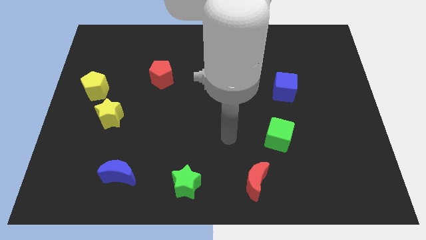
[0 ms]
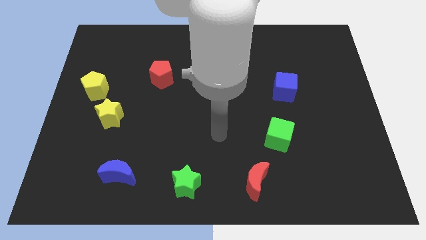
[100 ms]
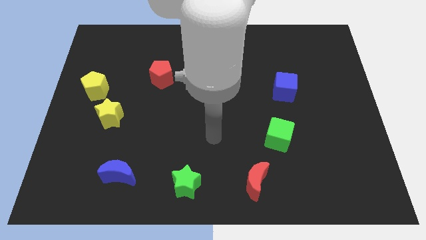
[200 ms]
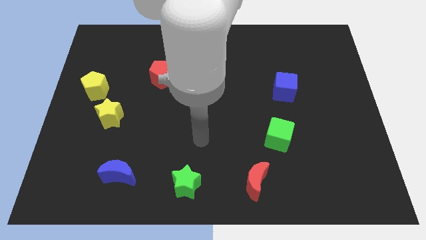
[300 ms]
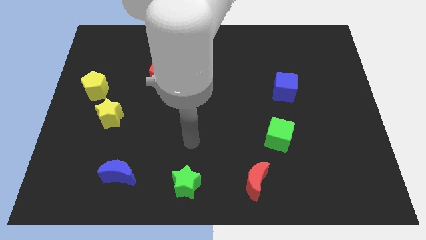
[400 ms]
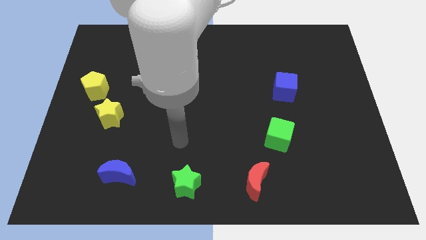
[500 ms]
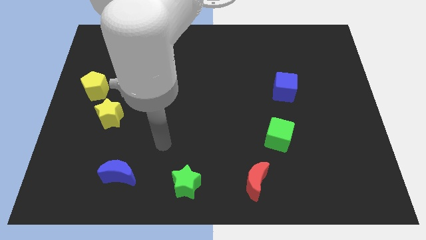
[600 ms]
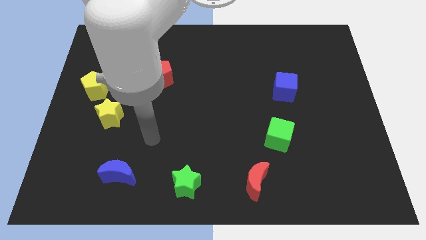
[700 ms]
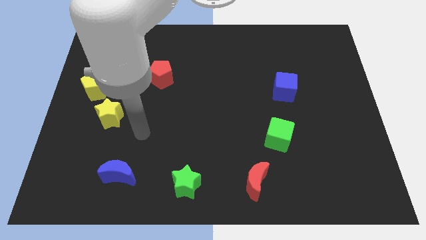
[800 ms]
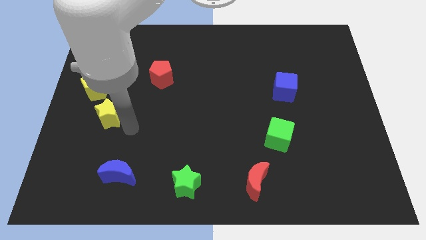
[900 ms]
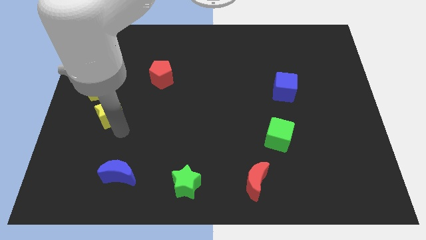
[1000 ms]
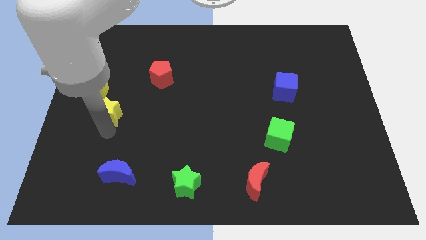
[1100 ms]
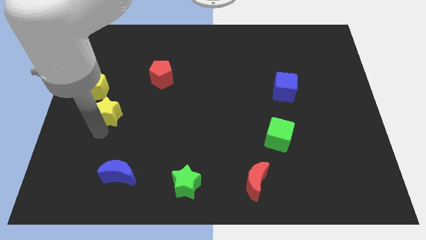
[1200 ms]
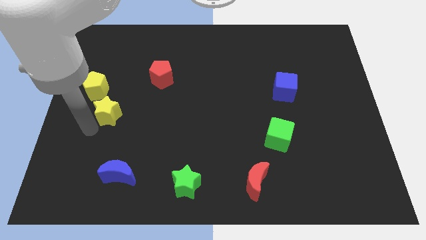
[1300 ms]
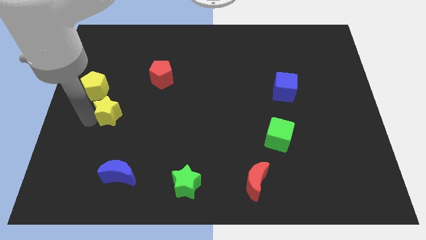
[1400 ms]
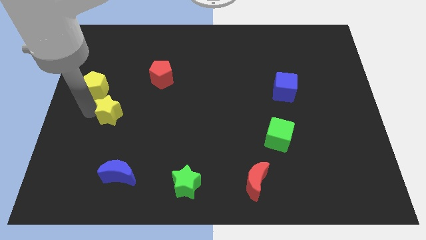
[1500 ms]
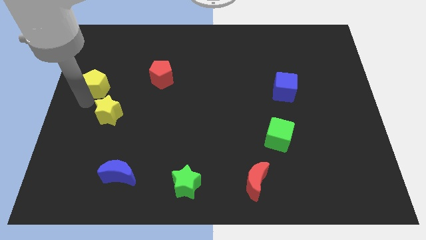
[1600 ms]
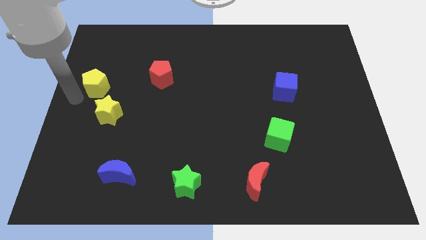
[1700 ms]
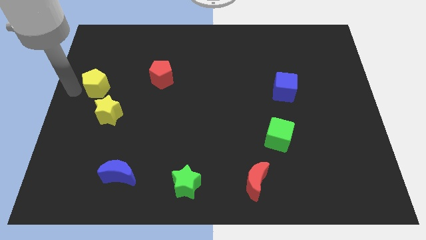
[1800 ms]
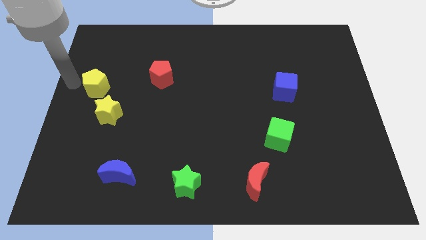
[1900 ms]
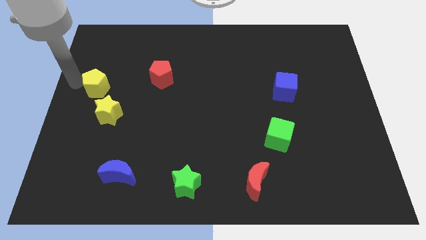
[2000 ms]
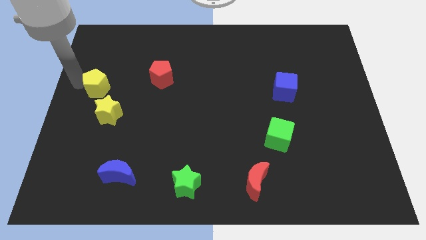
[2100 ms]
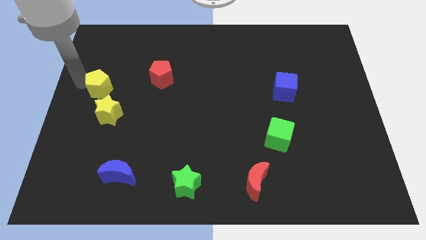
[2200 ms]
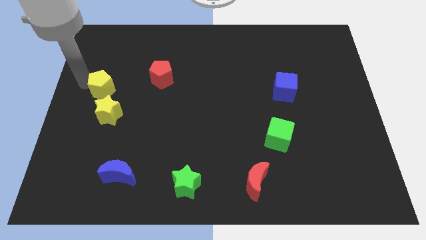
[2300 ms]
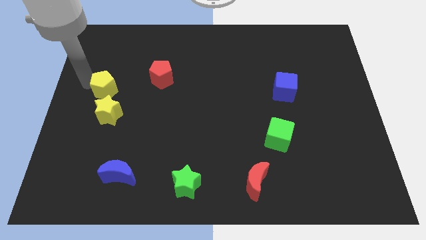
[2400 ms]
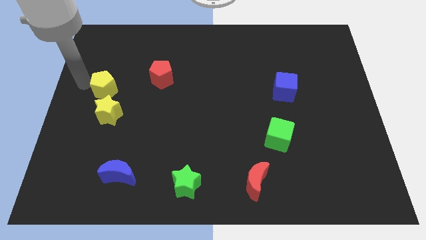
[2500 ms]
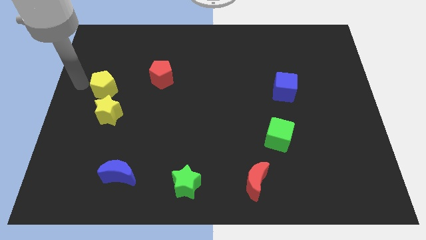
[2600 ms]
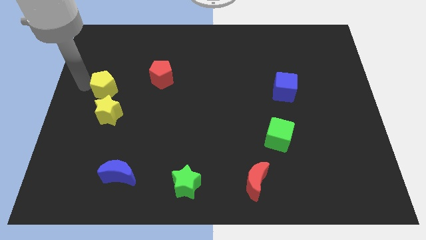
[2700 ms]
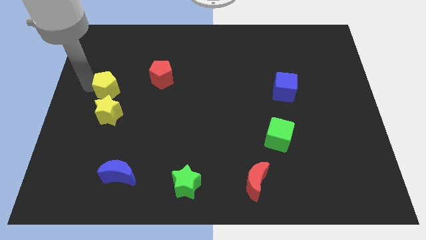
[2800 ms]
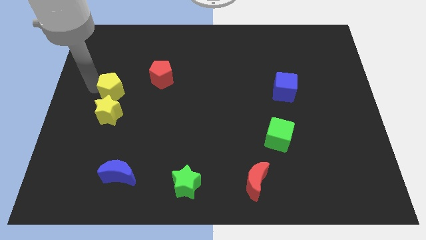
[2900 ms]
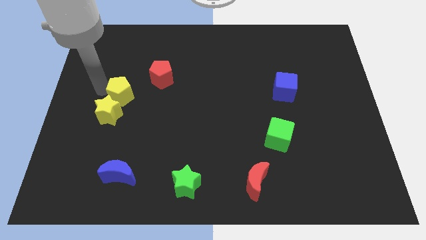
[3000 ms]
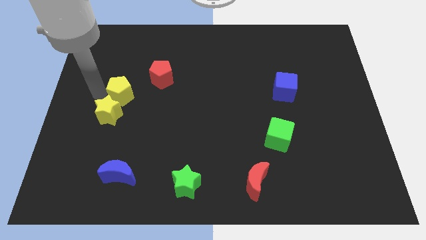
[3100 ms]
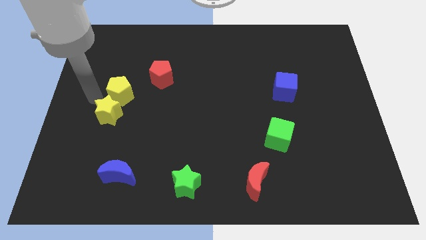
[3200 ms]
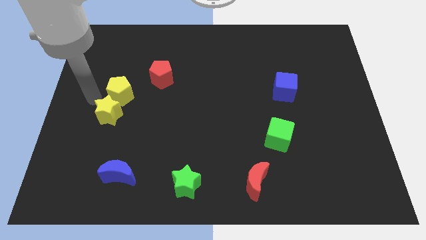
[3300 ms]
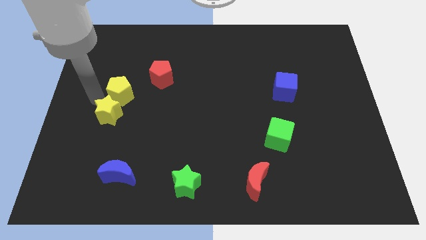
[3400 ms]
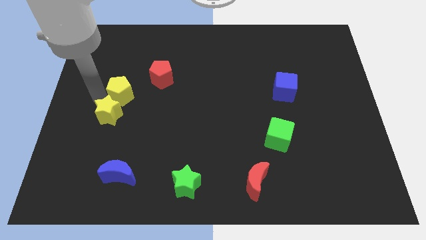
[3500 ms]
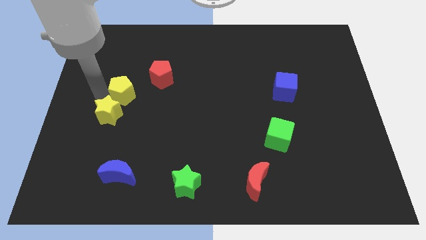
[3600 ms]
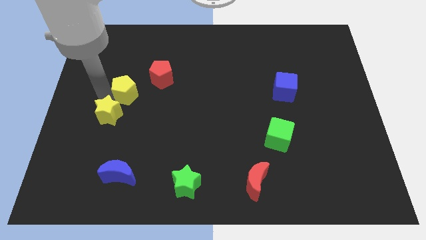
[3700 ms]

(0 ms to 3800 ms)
slightly slide the yellow pentagon right

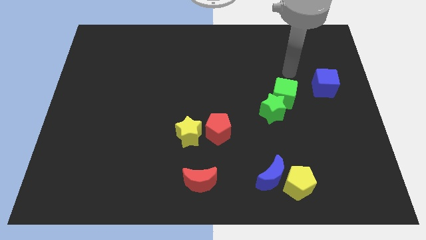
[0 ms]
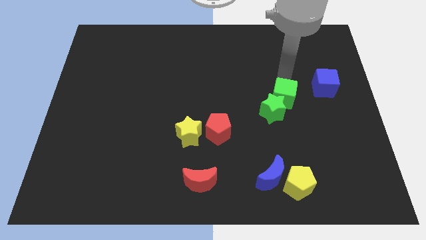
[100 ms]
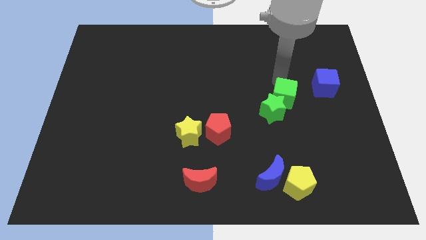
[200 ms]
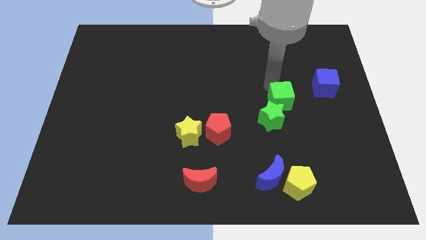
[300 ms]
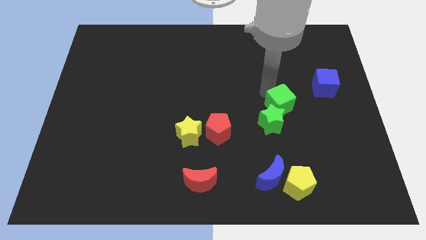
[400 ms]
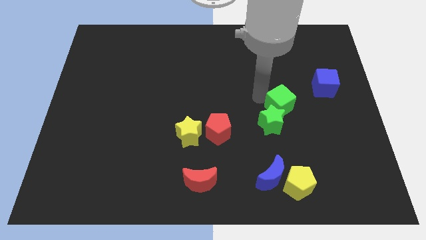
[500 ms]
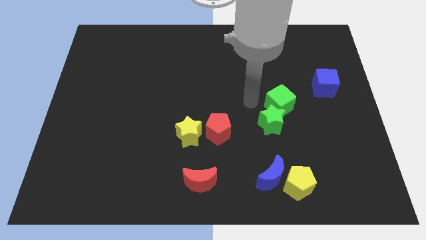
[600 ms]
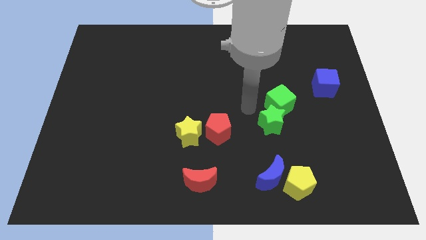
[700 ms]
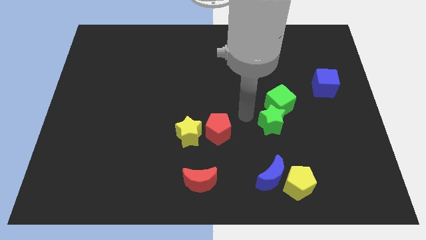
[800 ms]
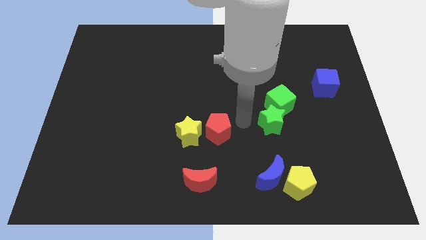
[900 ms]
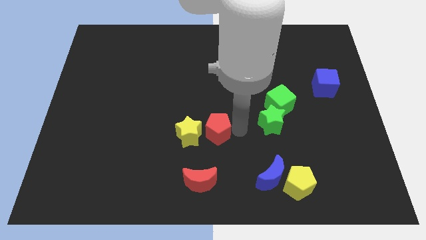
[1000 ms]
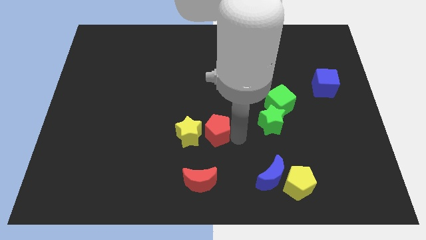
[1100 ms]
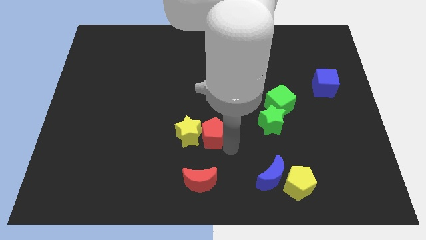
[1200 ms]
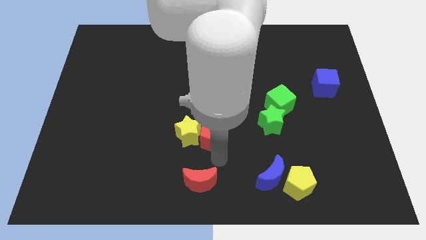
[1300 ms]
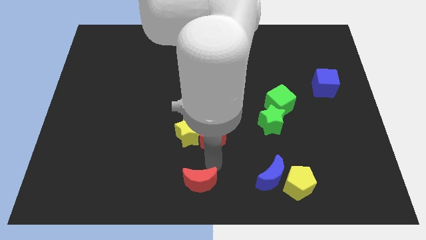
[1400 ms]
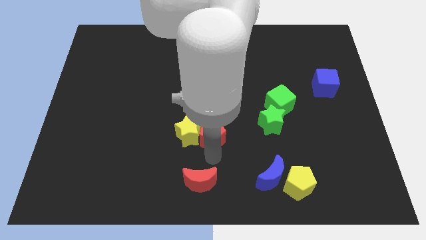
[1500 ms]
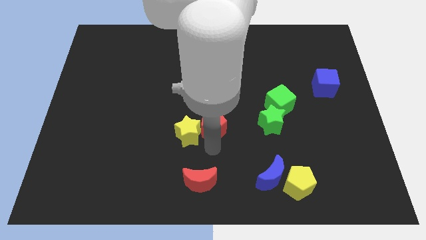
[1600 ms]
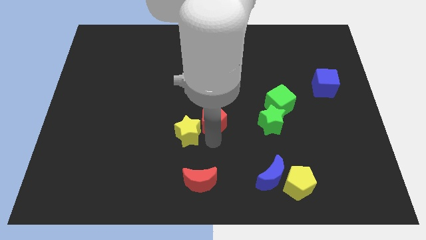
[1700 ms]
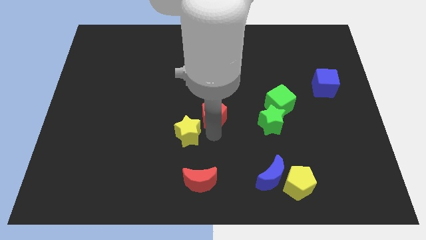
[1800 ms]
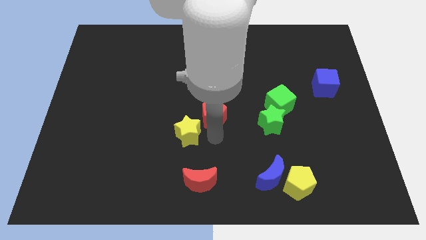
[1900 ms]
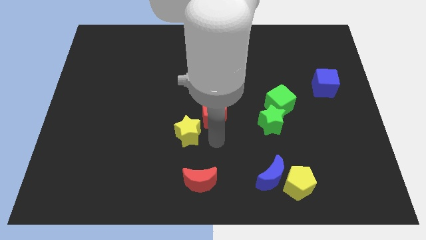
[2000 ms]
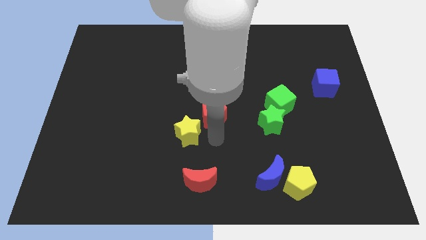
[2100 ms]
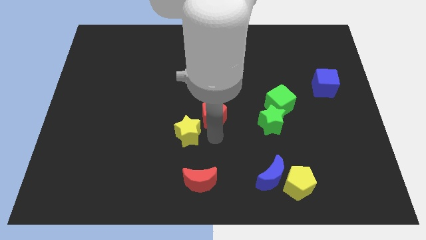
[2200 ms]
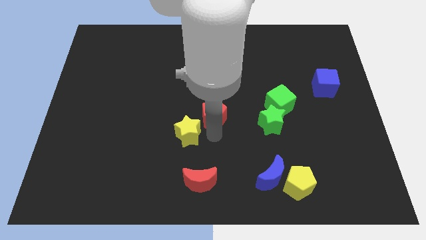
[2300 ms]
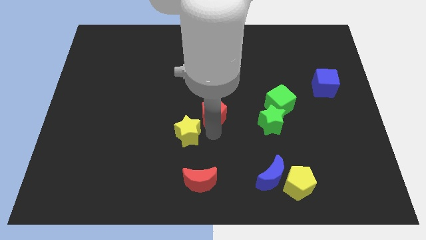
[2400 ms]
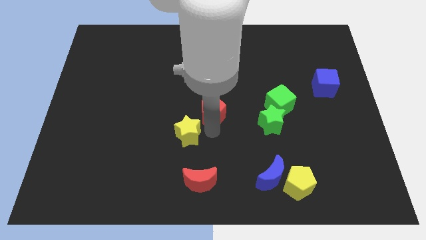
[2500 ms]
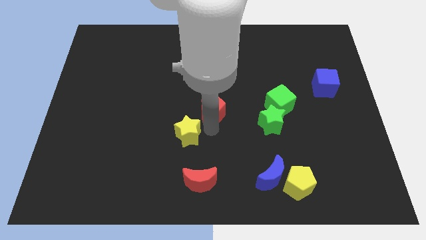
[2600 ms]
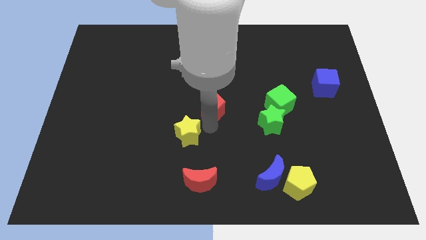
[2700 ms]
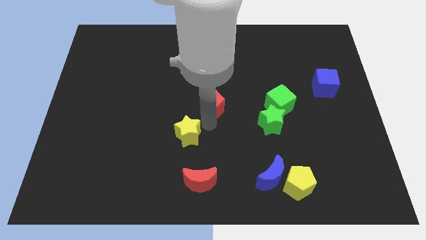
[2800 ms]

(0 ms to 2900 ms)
slide the red pentagon a bit up

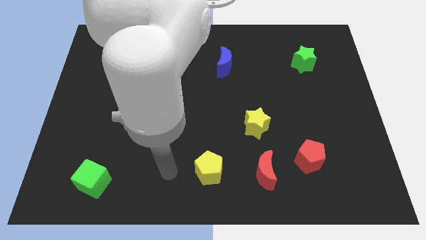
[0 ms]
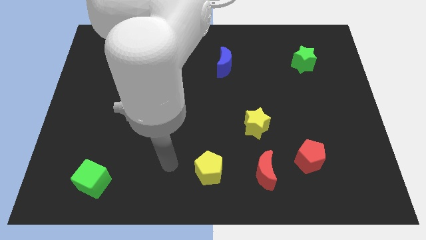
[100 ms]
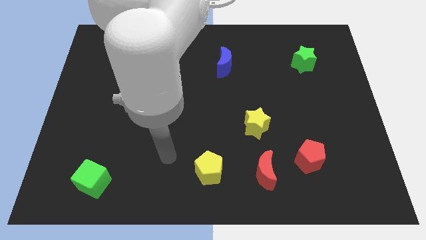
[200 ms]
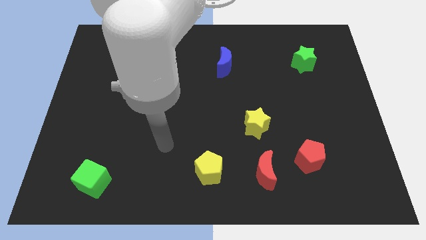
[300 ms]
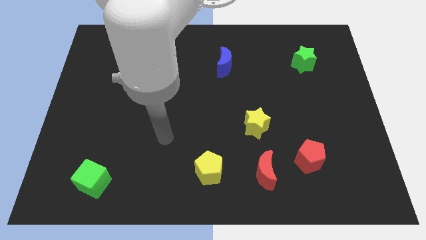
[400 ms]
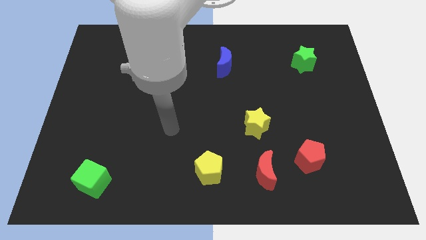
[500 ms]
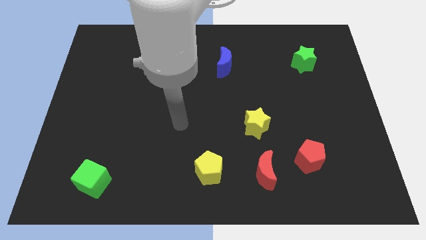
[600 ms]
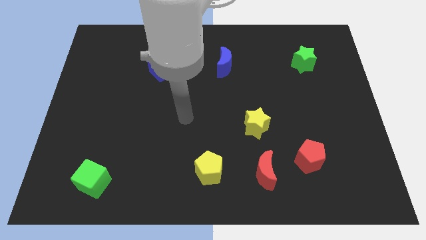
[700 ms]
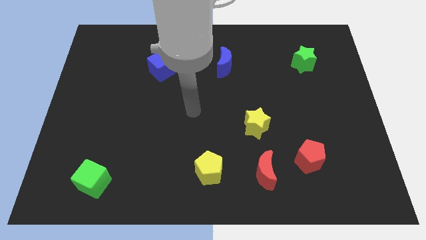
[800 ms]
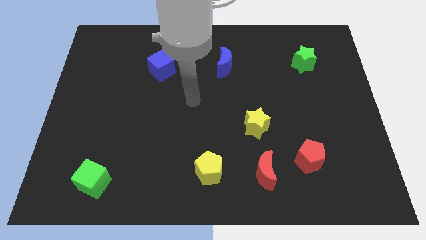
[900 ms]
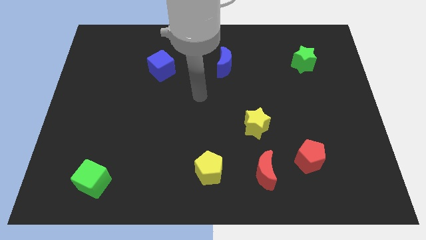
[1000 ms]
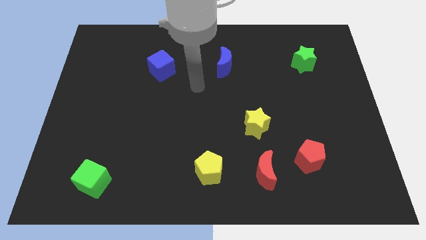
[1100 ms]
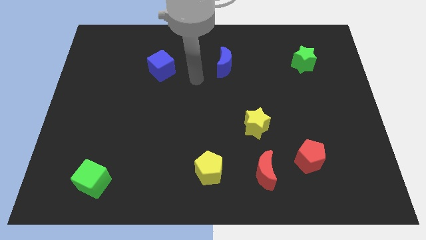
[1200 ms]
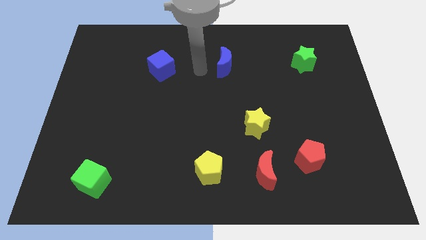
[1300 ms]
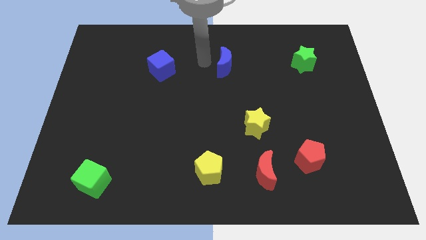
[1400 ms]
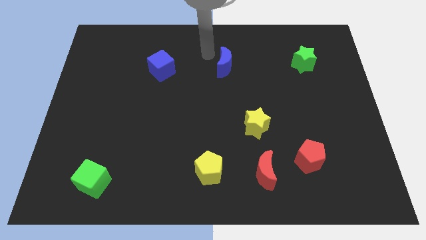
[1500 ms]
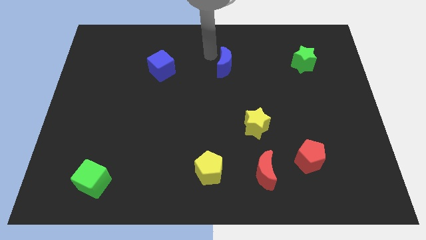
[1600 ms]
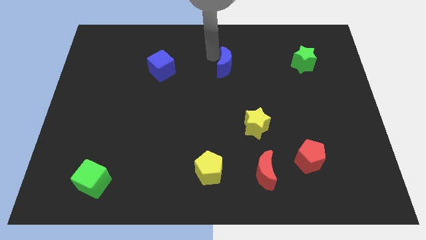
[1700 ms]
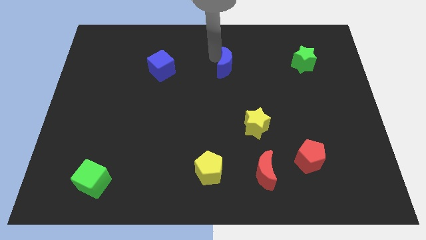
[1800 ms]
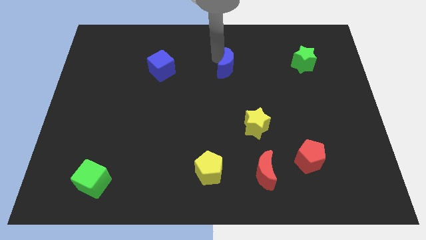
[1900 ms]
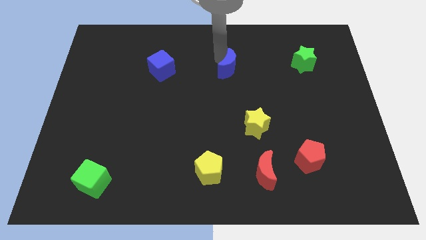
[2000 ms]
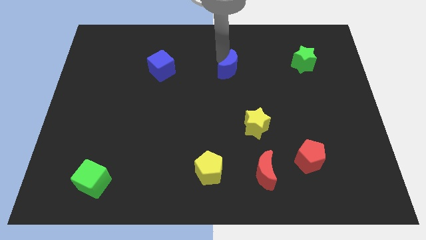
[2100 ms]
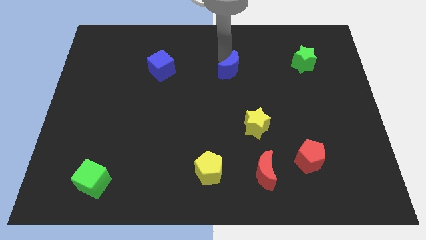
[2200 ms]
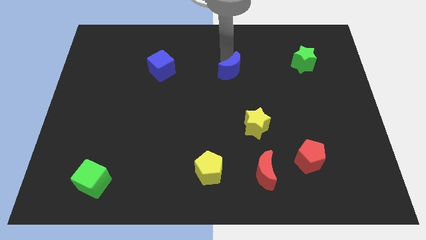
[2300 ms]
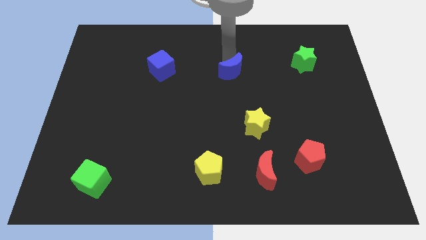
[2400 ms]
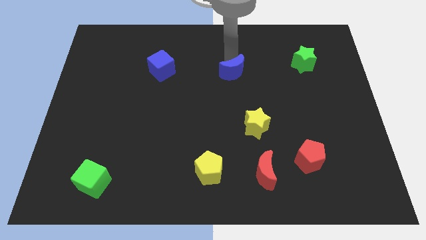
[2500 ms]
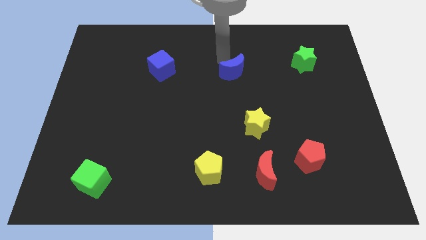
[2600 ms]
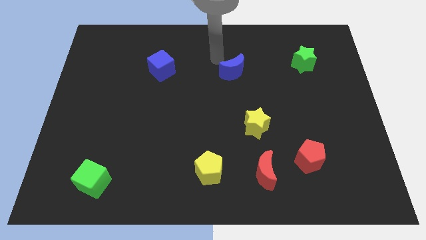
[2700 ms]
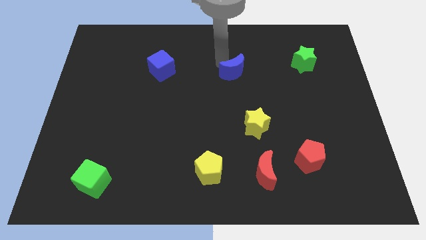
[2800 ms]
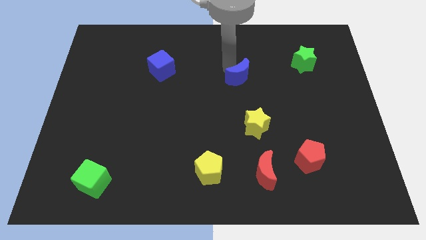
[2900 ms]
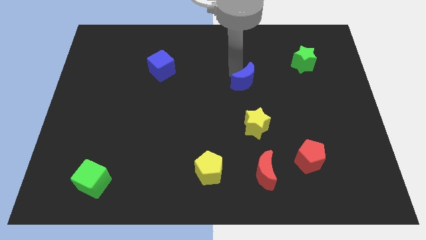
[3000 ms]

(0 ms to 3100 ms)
move the blue moon a little bit diagonally down and right
